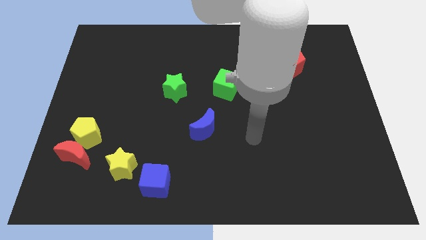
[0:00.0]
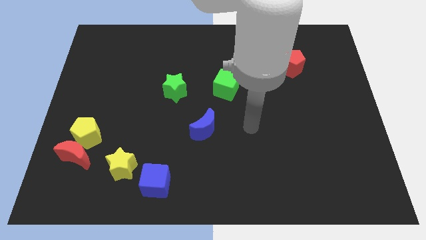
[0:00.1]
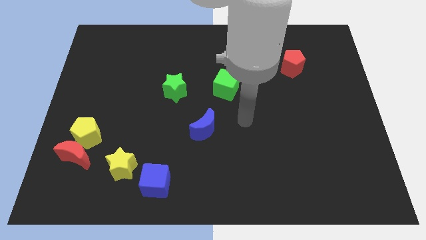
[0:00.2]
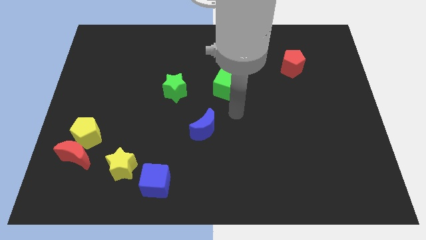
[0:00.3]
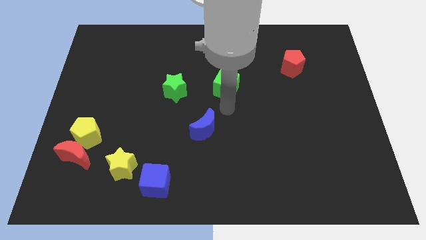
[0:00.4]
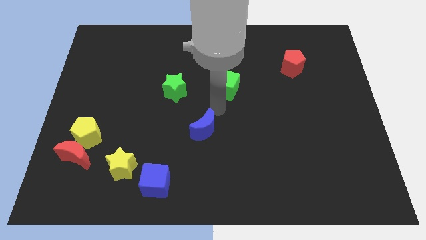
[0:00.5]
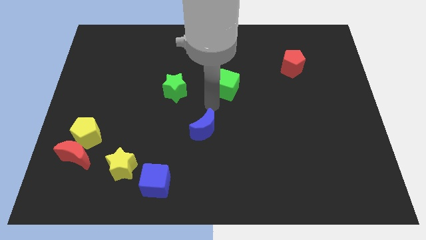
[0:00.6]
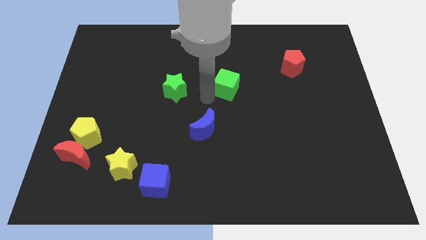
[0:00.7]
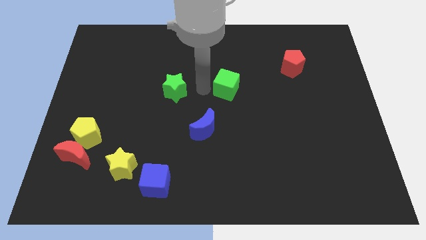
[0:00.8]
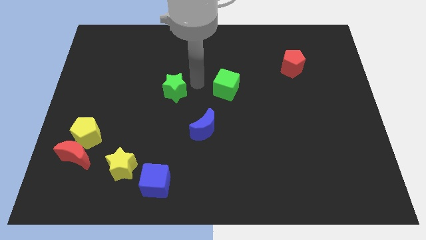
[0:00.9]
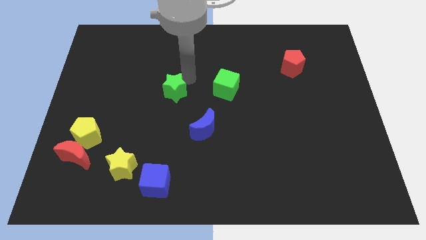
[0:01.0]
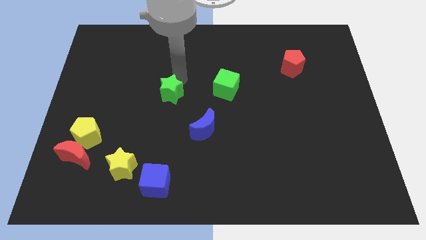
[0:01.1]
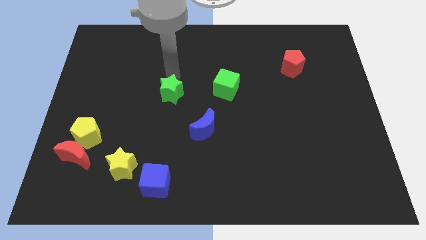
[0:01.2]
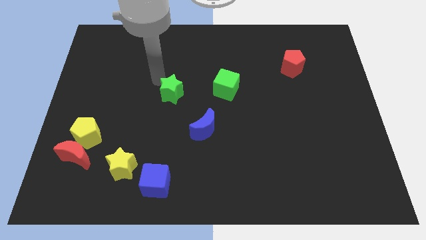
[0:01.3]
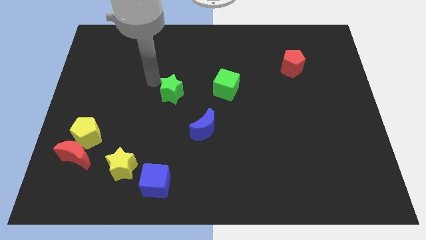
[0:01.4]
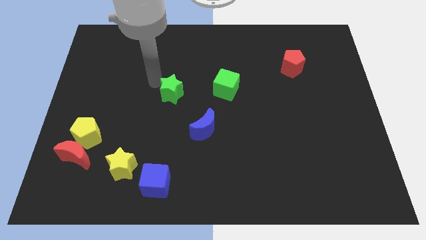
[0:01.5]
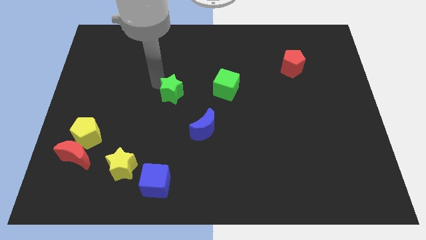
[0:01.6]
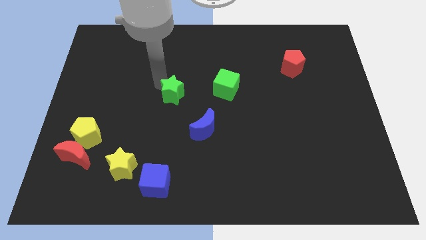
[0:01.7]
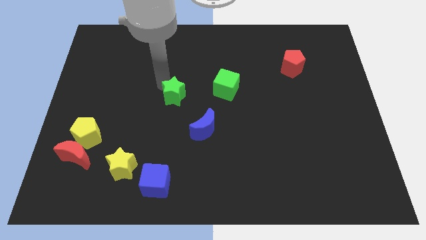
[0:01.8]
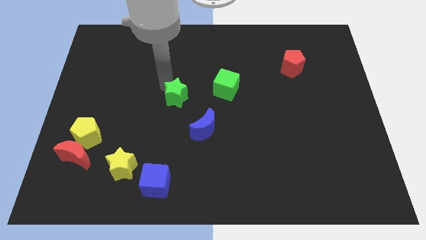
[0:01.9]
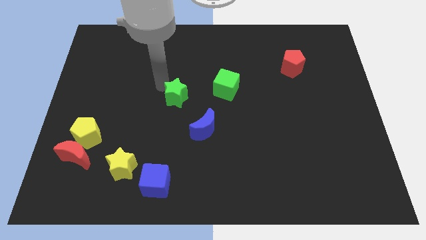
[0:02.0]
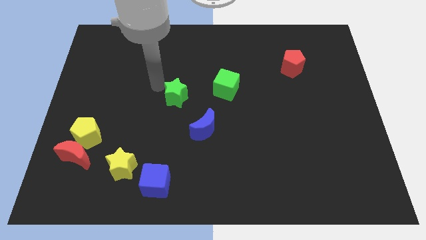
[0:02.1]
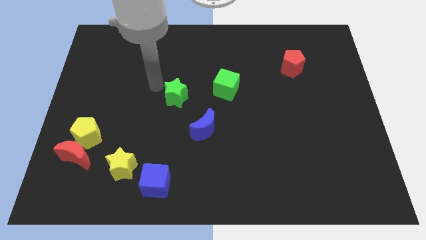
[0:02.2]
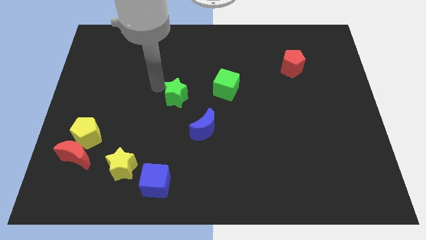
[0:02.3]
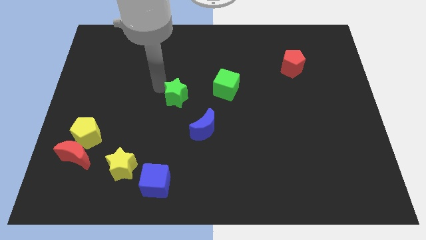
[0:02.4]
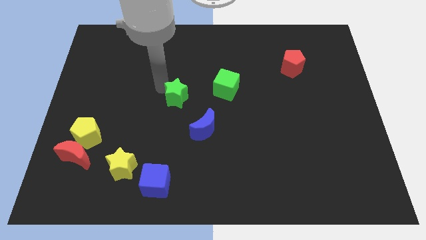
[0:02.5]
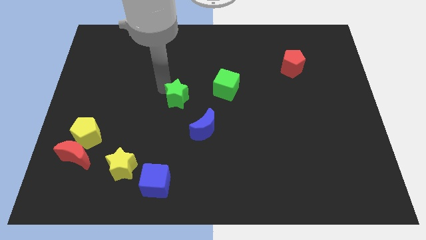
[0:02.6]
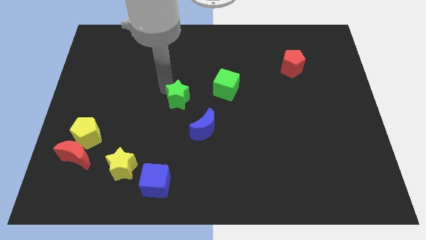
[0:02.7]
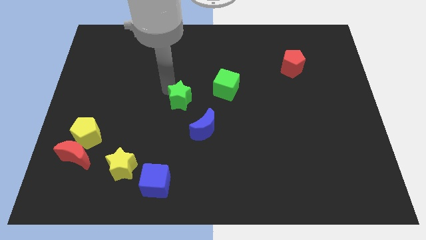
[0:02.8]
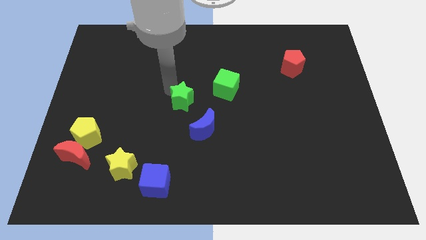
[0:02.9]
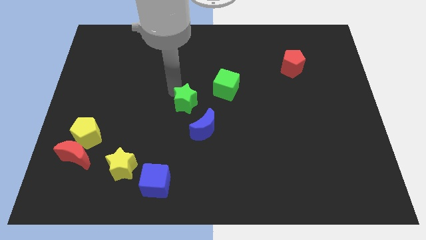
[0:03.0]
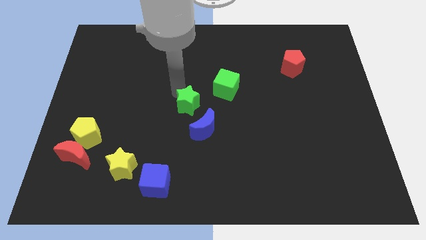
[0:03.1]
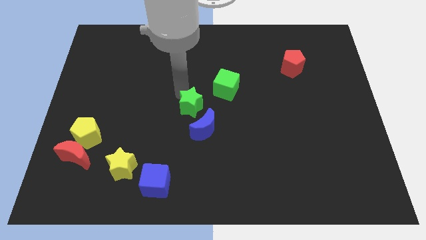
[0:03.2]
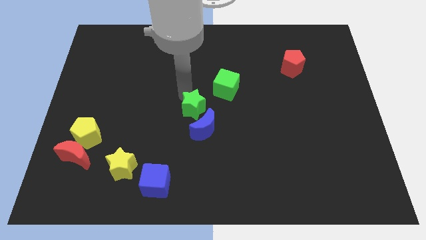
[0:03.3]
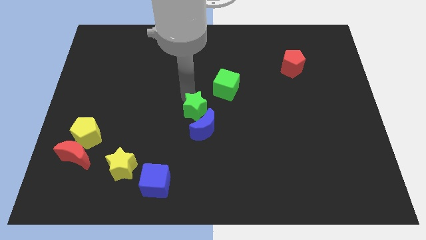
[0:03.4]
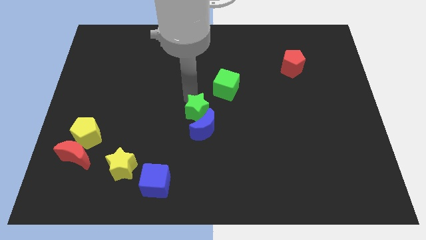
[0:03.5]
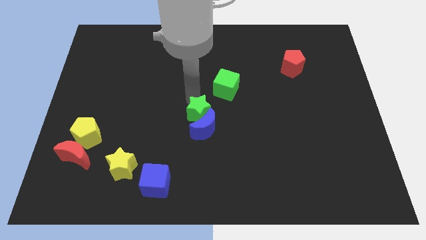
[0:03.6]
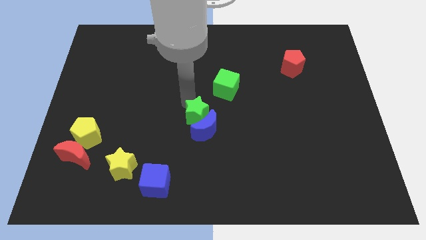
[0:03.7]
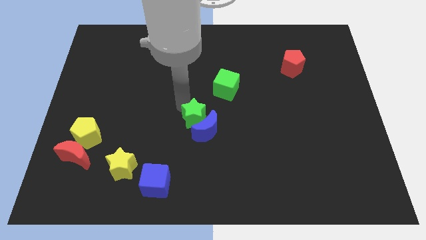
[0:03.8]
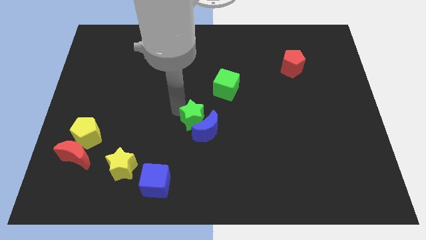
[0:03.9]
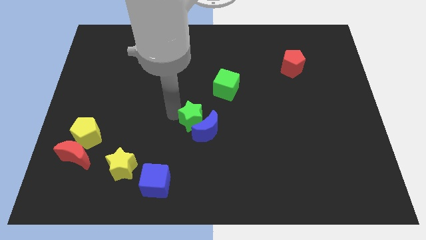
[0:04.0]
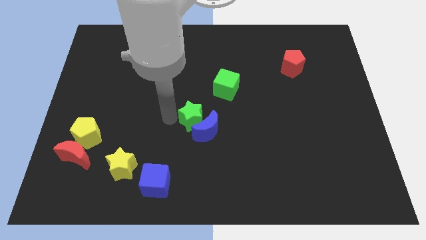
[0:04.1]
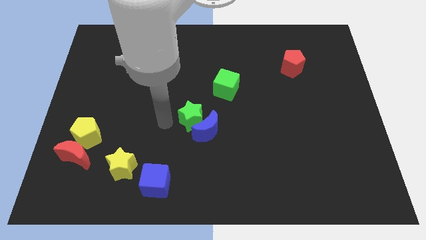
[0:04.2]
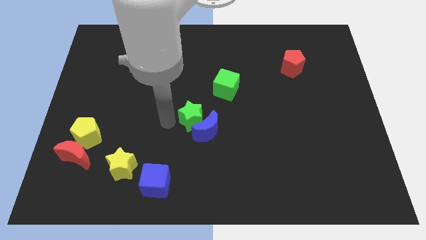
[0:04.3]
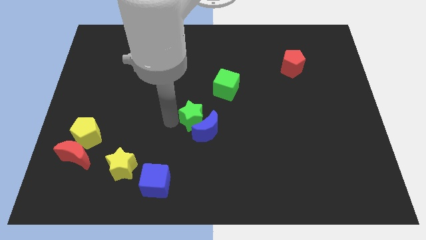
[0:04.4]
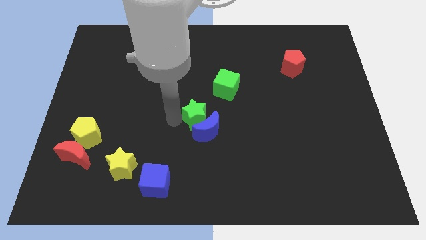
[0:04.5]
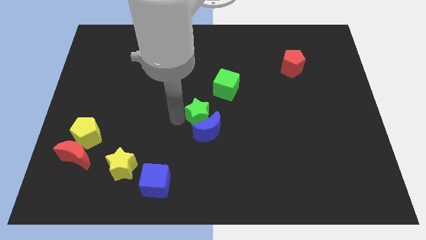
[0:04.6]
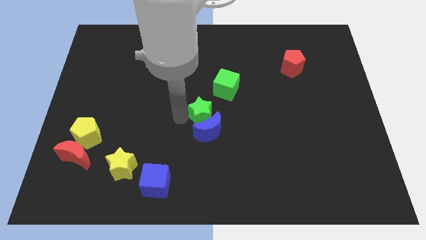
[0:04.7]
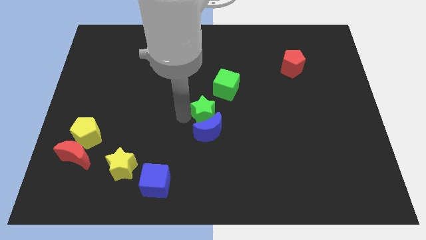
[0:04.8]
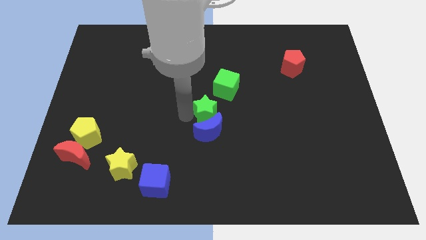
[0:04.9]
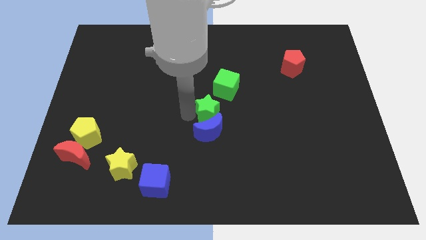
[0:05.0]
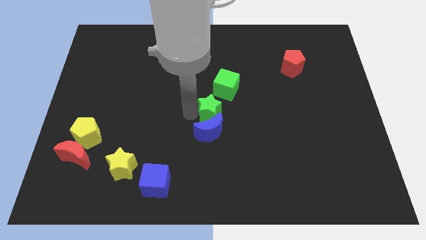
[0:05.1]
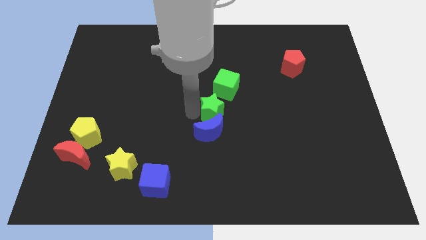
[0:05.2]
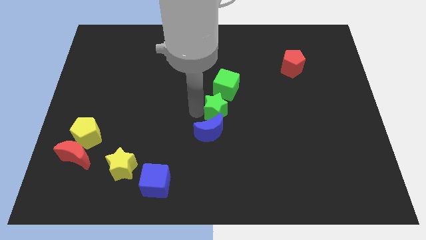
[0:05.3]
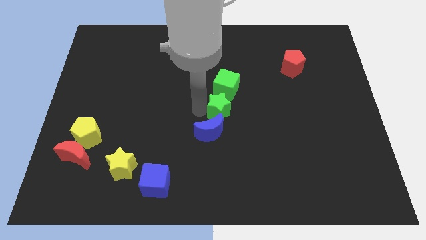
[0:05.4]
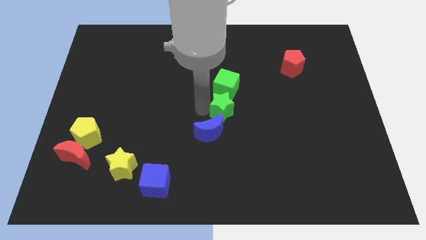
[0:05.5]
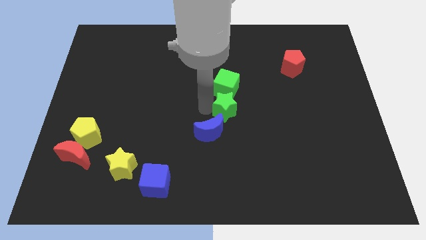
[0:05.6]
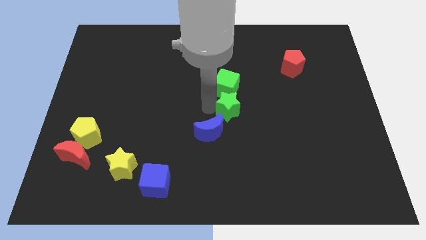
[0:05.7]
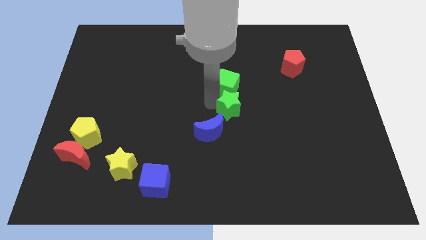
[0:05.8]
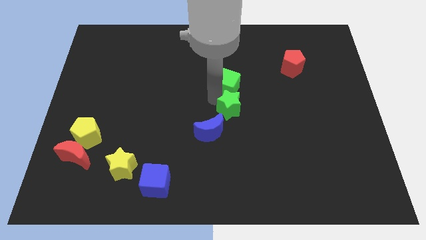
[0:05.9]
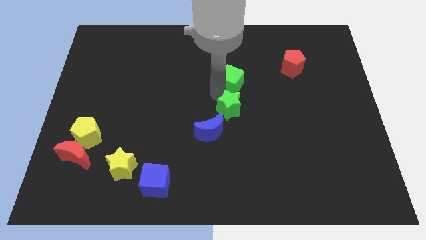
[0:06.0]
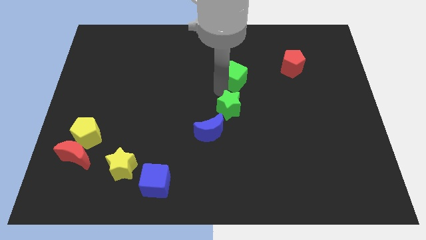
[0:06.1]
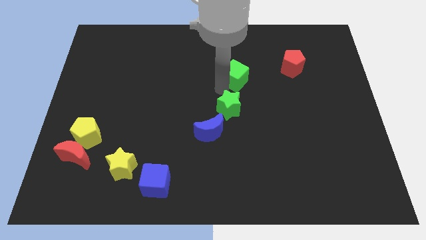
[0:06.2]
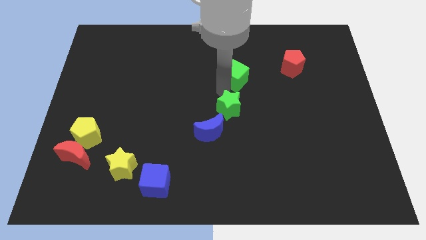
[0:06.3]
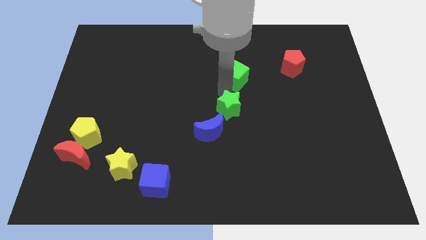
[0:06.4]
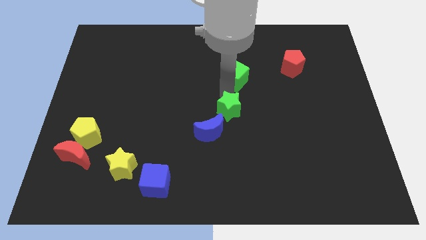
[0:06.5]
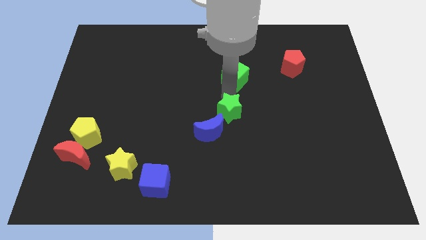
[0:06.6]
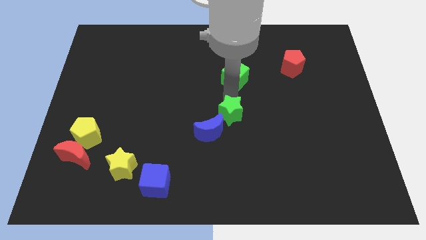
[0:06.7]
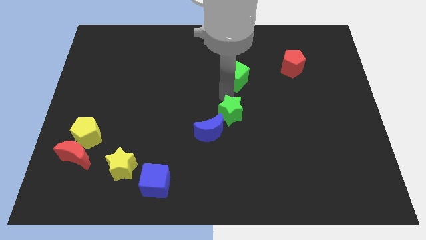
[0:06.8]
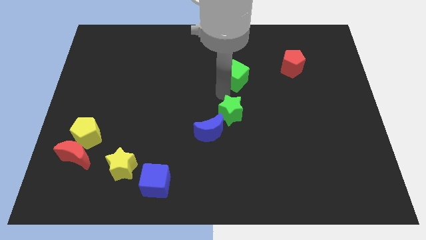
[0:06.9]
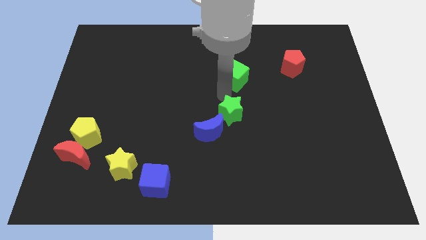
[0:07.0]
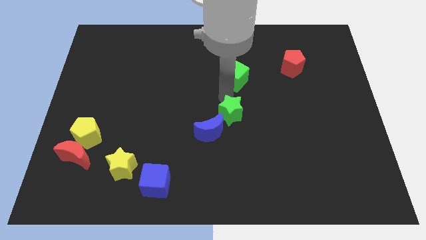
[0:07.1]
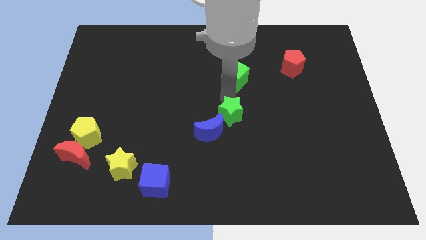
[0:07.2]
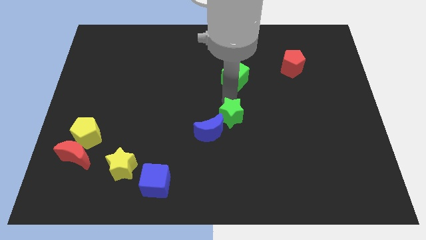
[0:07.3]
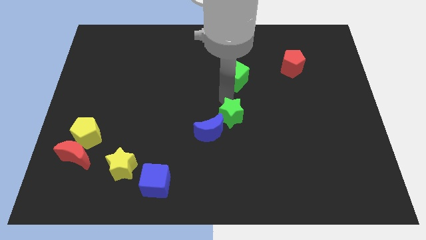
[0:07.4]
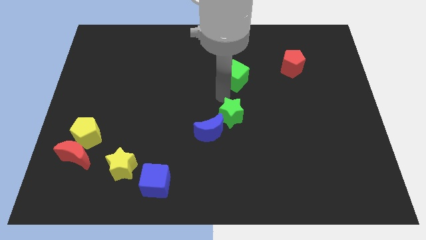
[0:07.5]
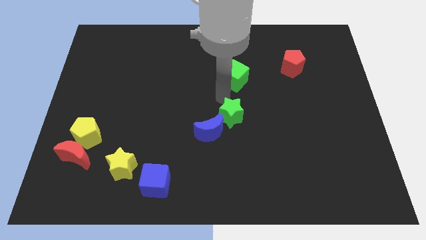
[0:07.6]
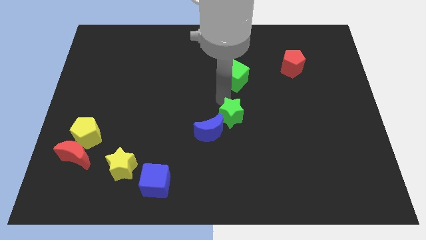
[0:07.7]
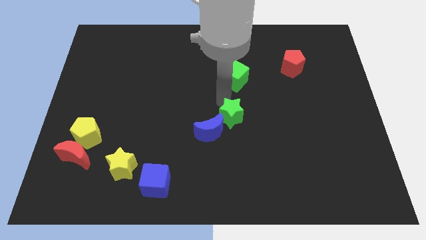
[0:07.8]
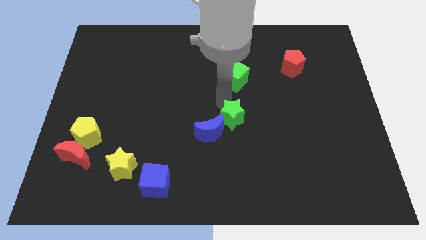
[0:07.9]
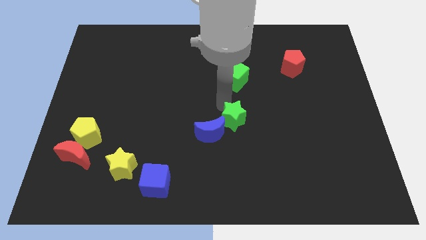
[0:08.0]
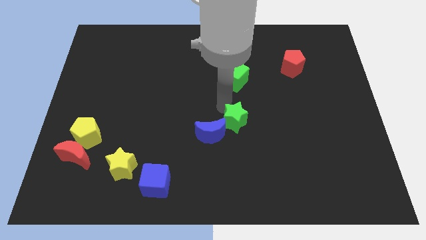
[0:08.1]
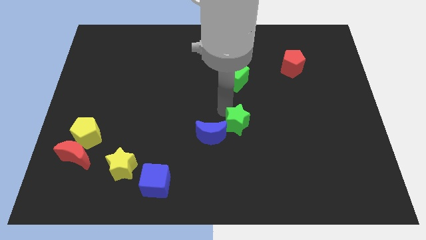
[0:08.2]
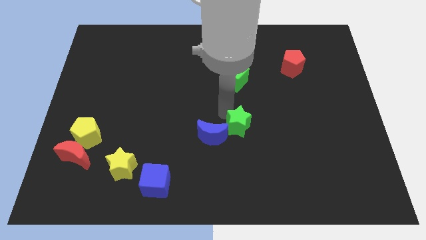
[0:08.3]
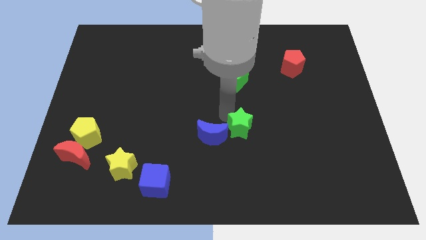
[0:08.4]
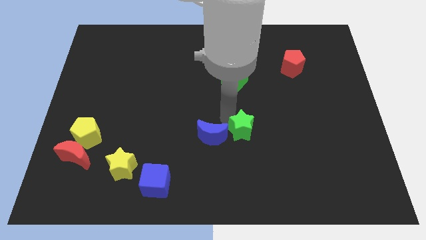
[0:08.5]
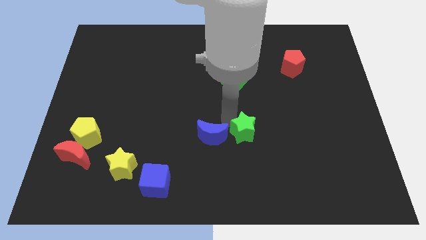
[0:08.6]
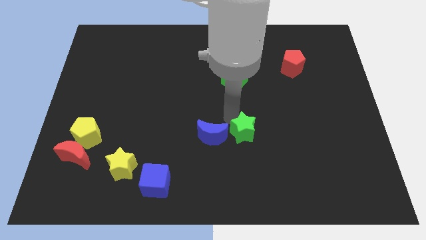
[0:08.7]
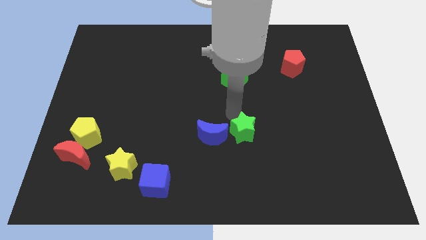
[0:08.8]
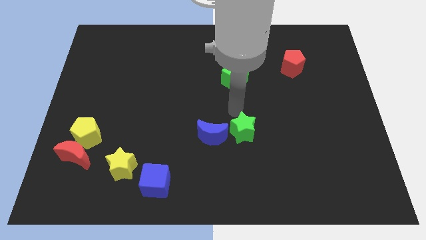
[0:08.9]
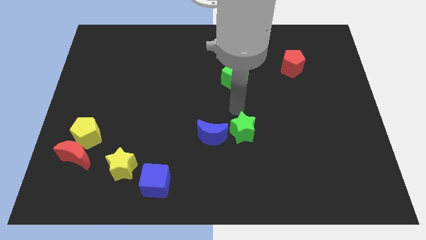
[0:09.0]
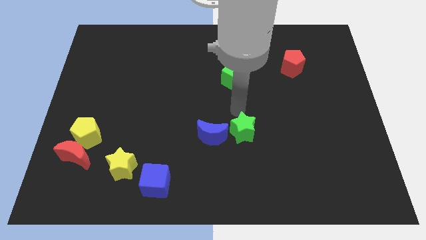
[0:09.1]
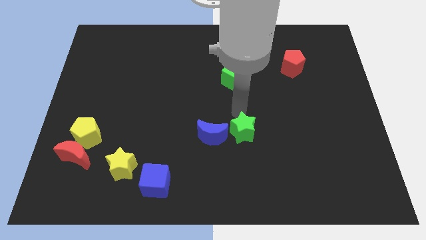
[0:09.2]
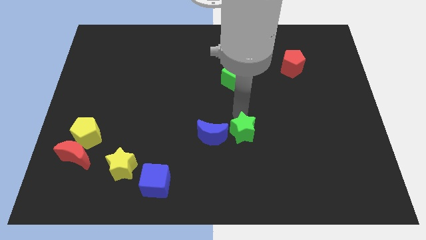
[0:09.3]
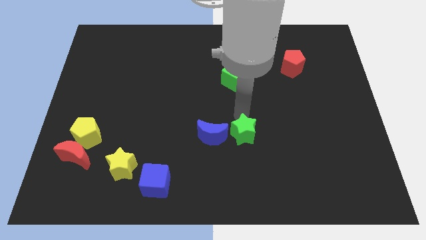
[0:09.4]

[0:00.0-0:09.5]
move the green star down and to the right
